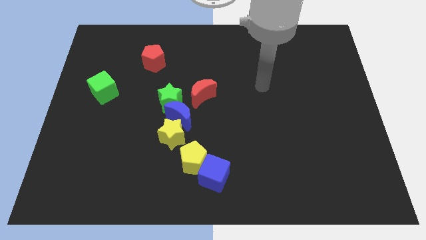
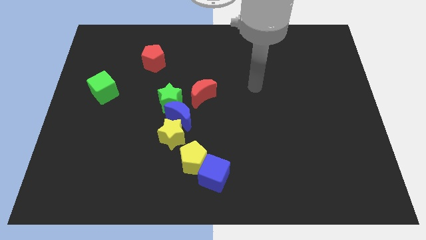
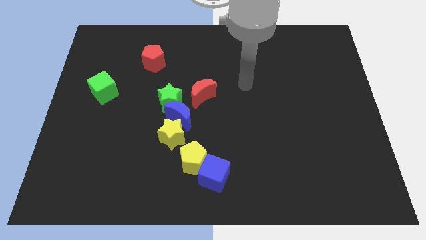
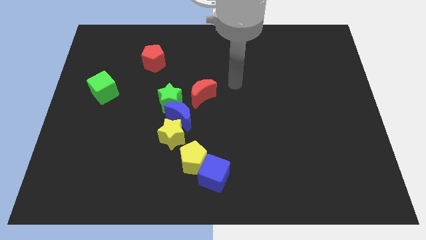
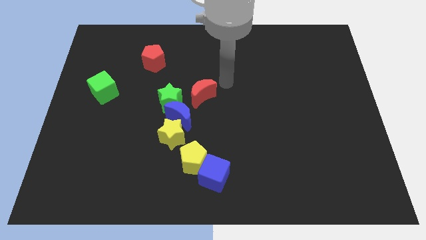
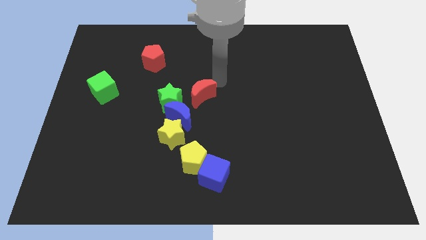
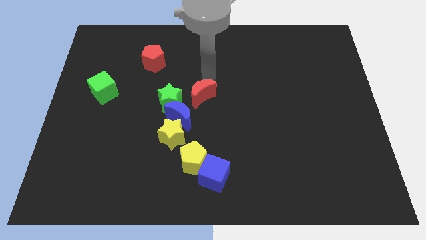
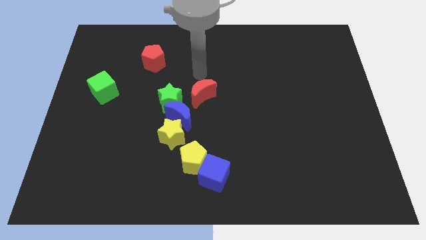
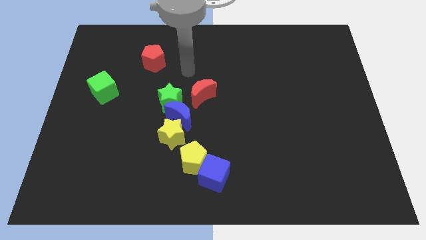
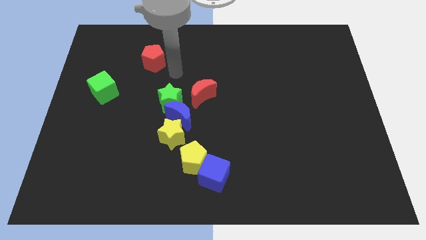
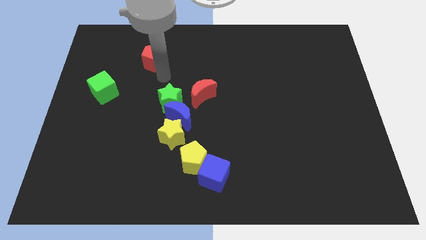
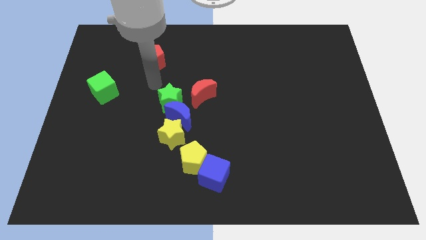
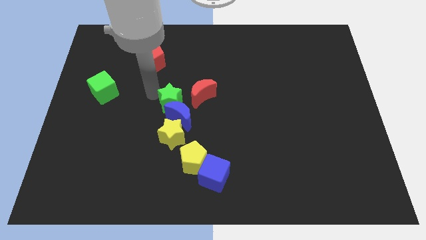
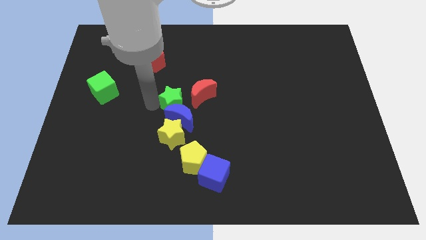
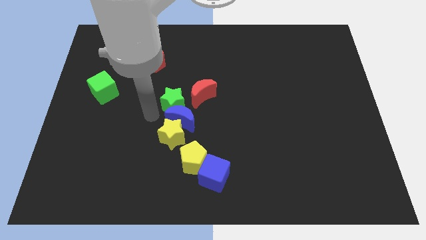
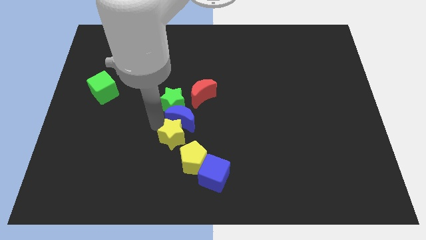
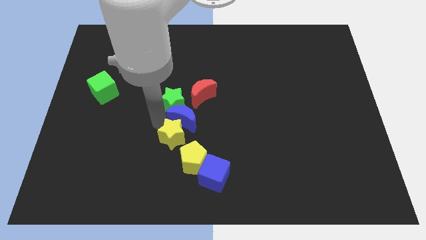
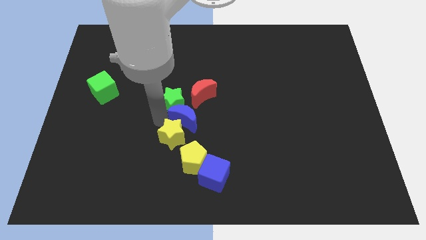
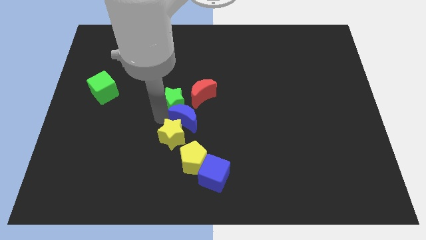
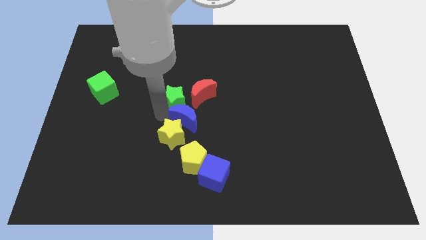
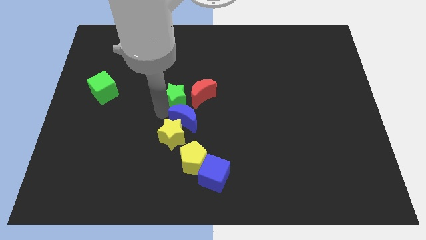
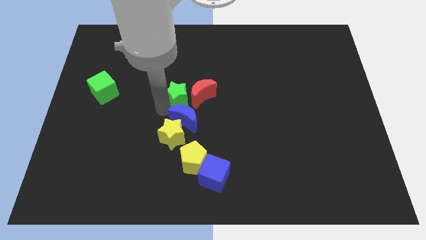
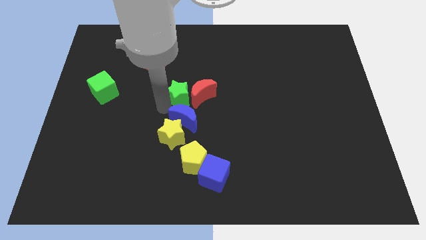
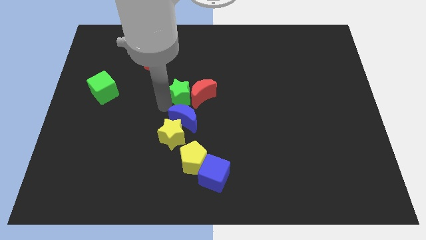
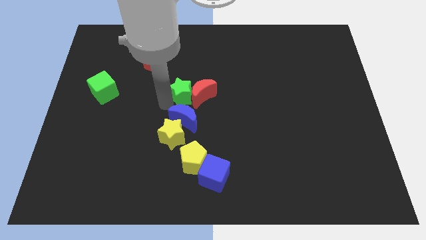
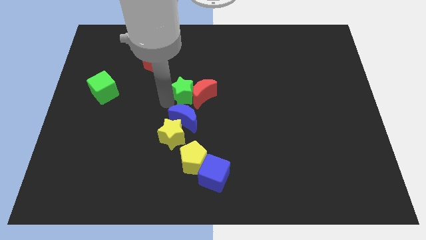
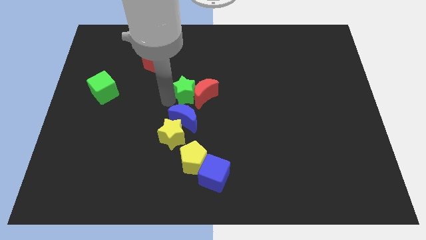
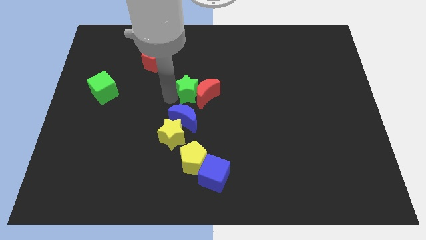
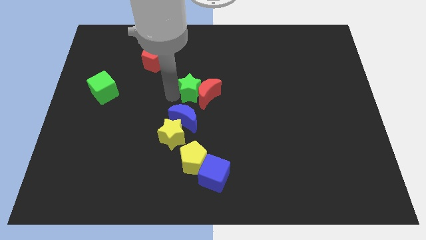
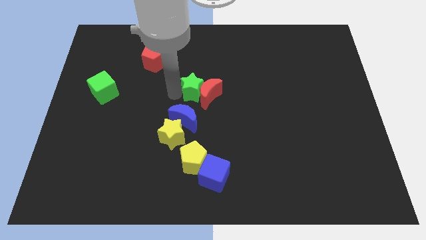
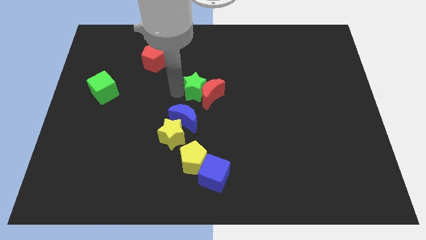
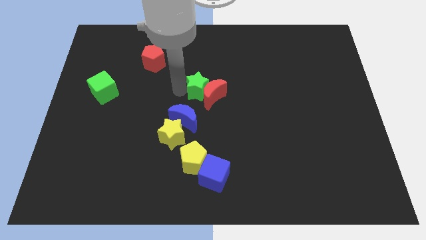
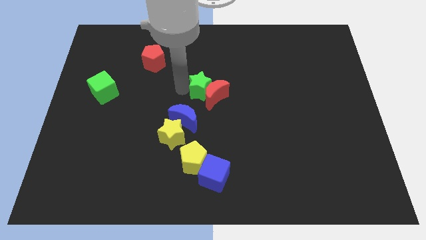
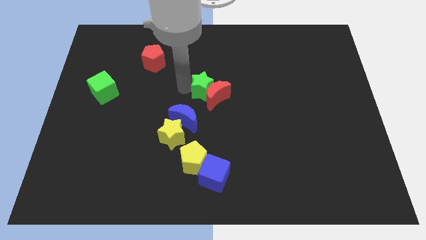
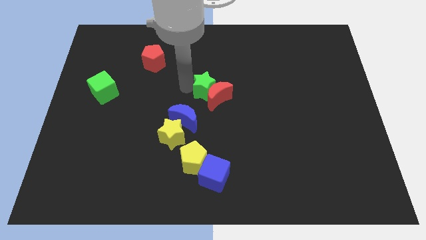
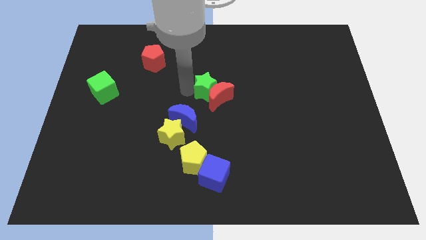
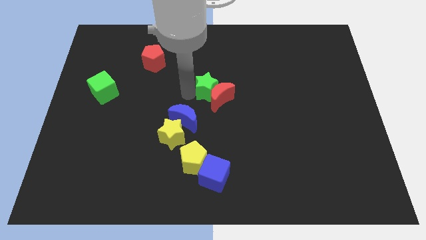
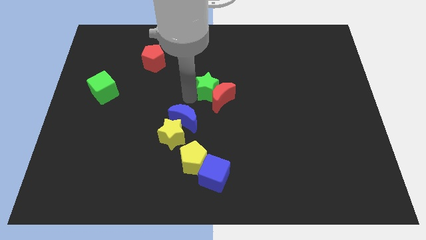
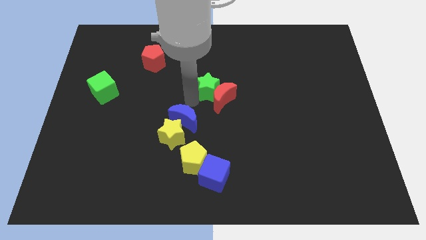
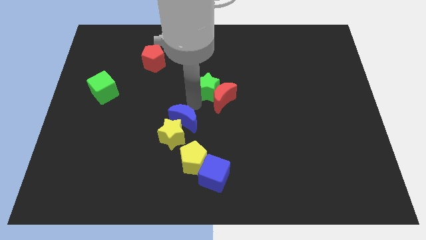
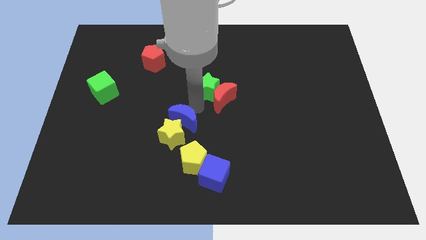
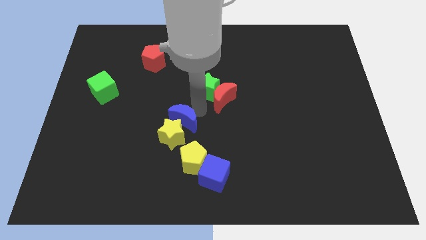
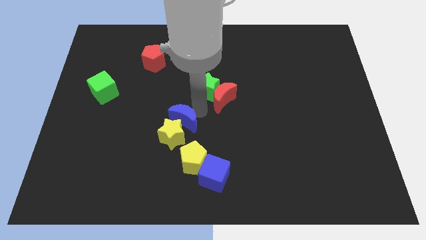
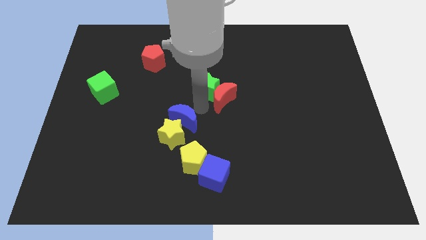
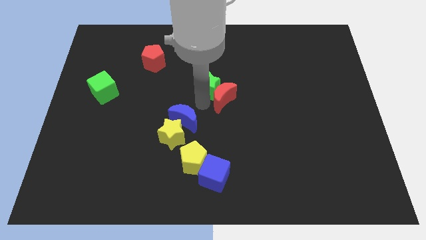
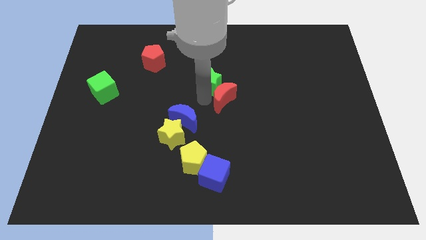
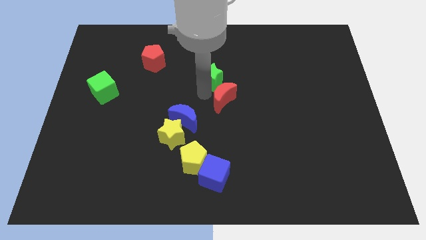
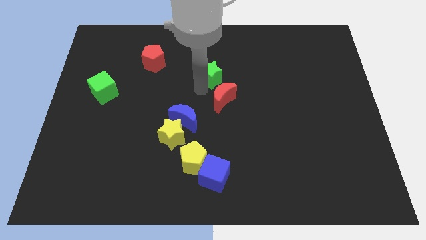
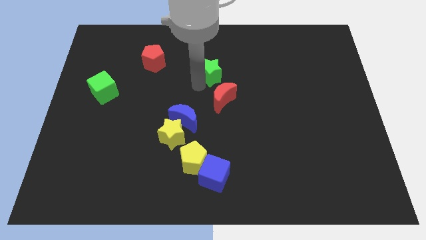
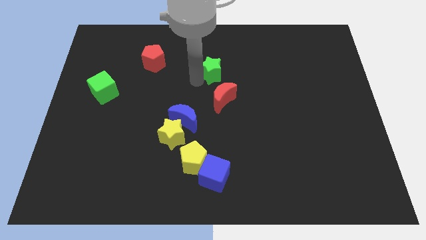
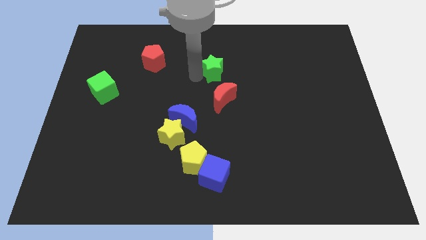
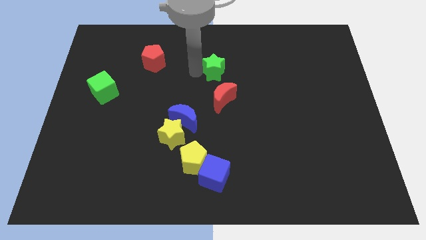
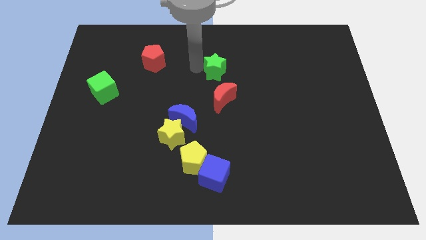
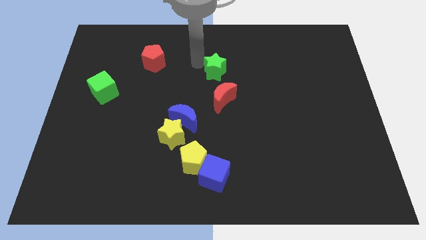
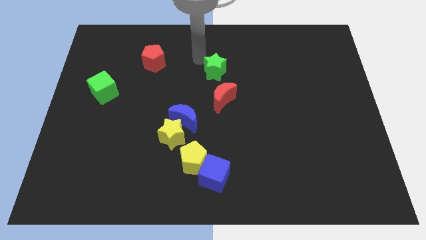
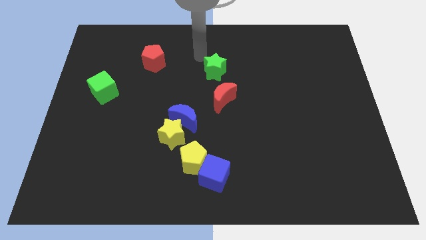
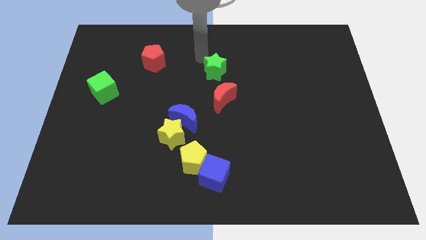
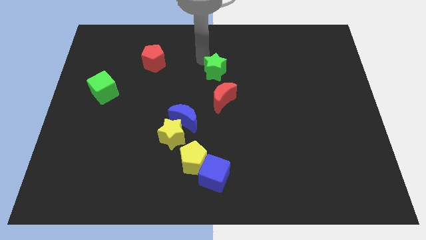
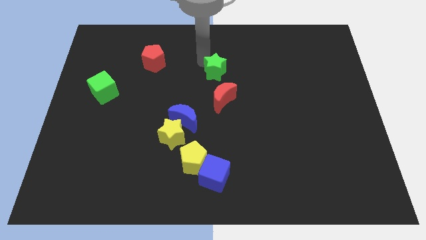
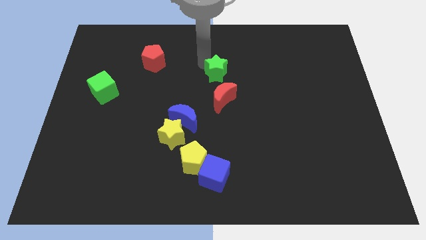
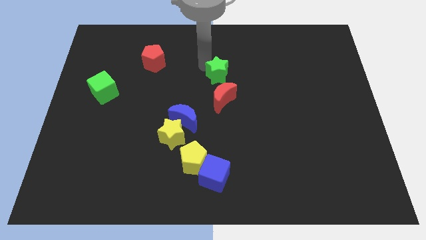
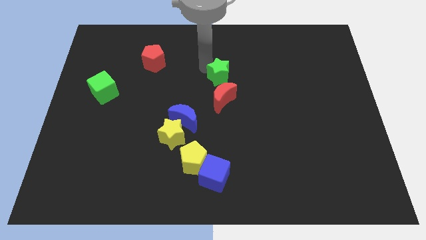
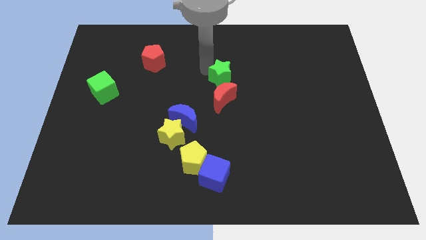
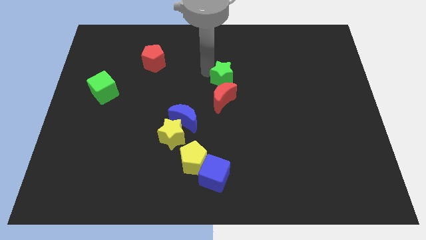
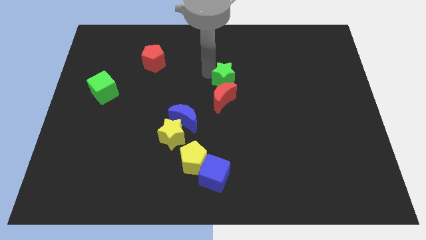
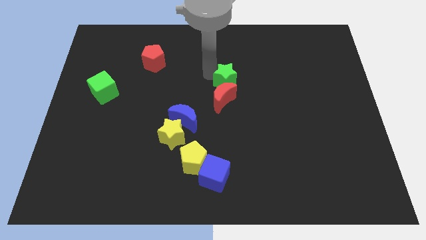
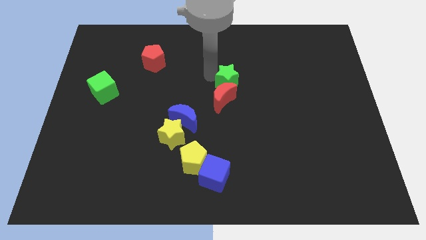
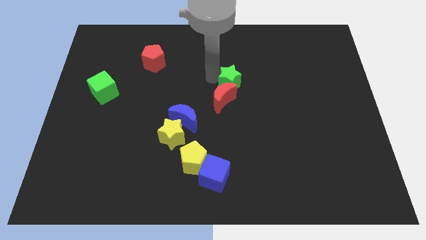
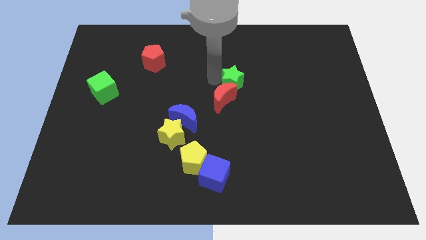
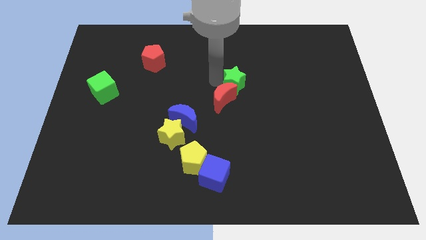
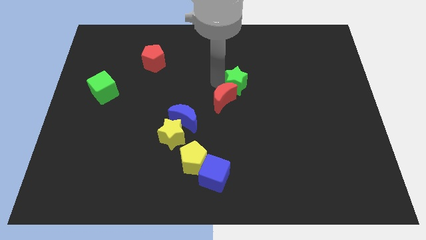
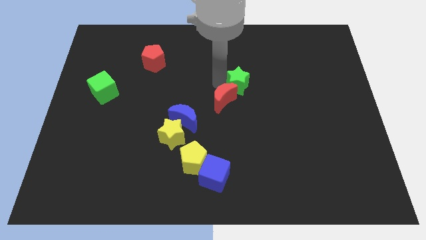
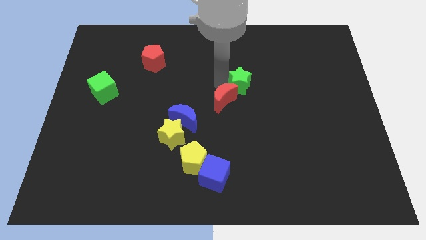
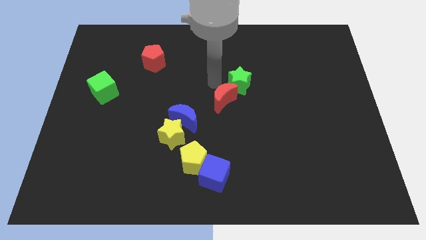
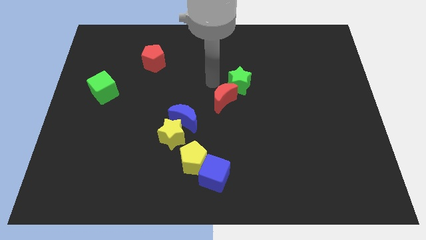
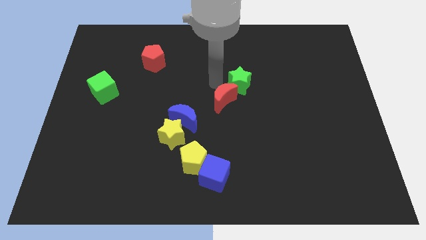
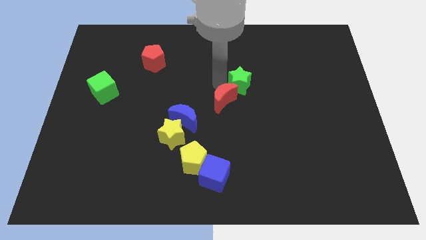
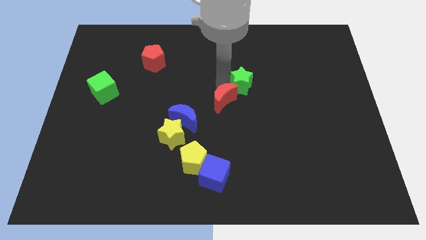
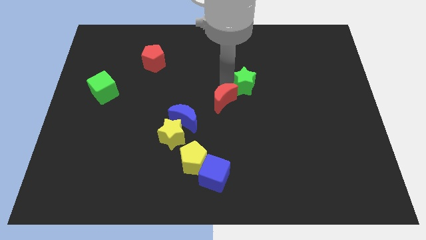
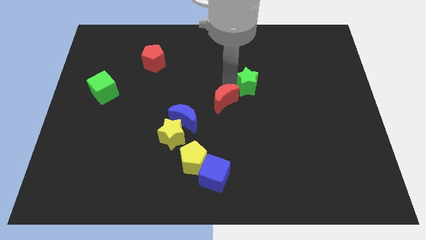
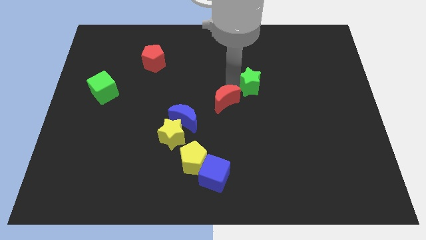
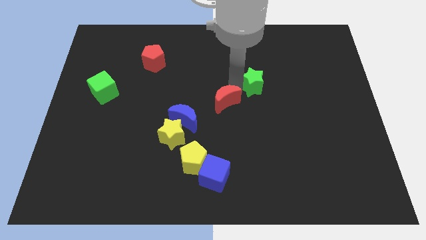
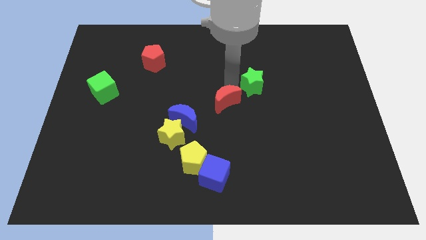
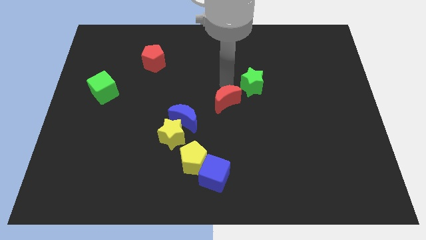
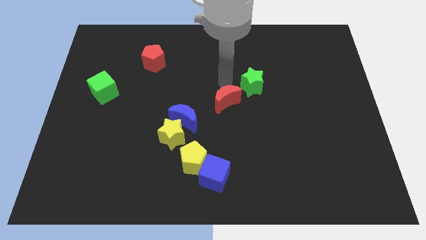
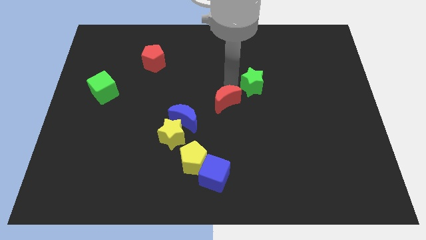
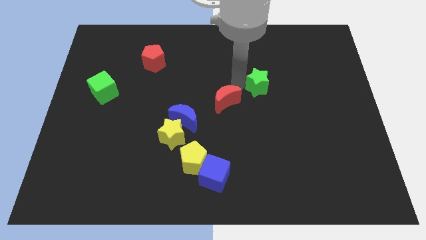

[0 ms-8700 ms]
slide the green star right
